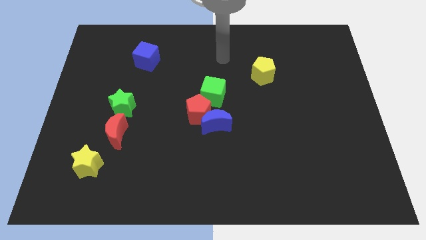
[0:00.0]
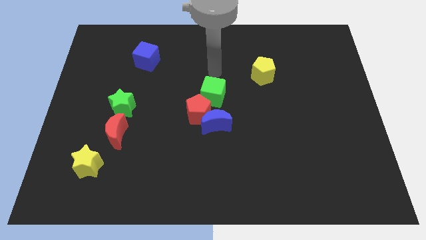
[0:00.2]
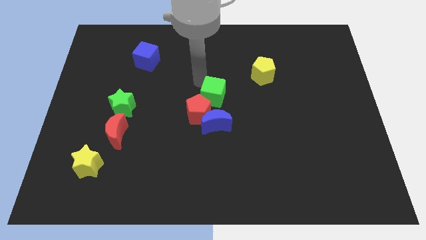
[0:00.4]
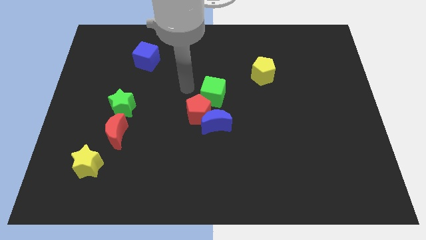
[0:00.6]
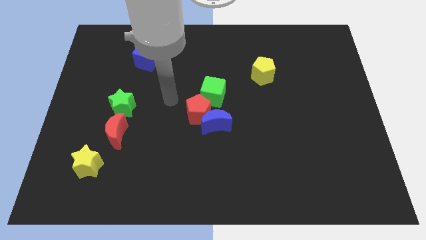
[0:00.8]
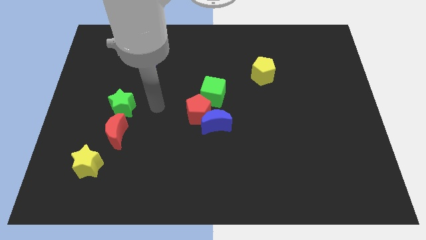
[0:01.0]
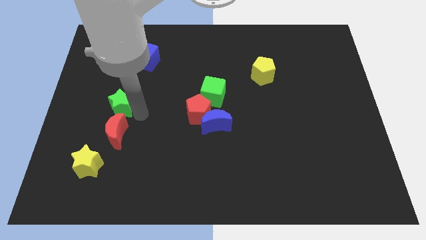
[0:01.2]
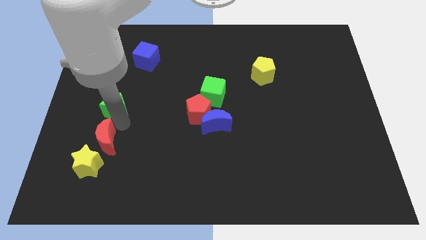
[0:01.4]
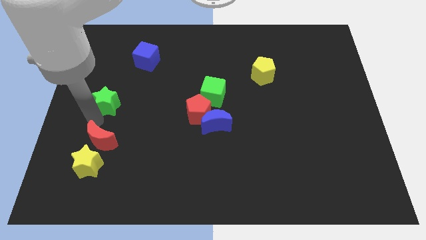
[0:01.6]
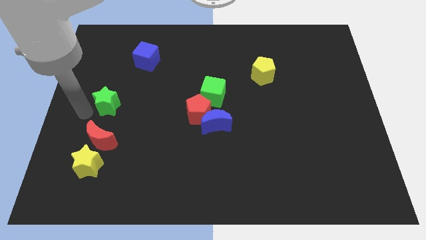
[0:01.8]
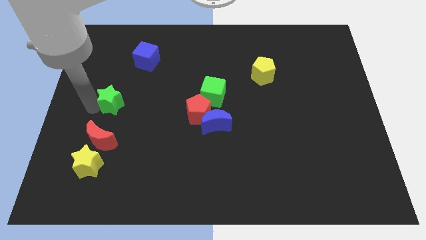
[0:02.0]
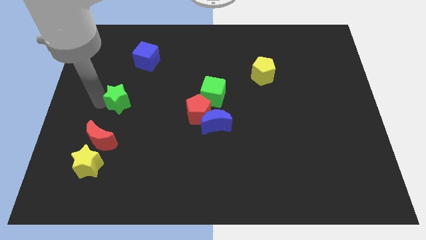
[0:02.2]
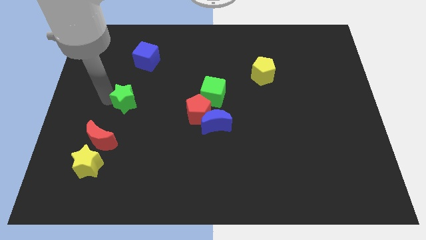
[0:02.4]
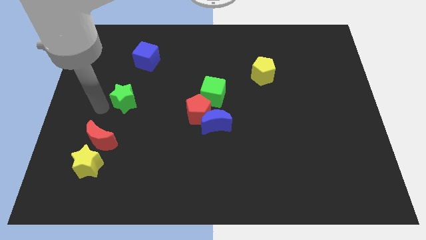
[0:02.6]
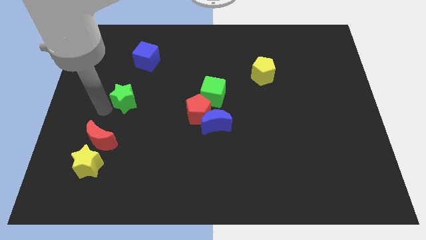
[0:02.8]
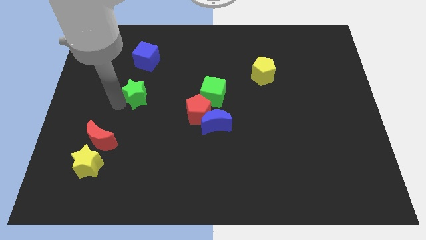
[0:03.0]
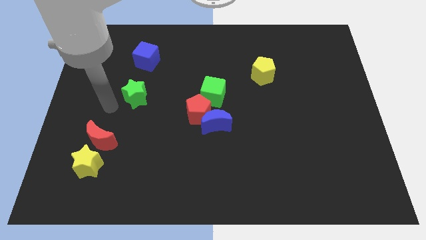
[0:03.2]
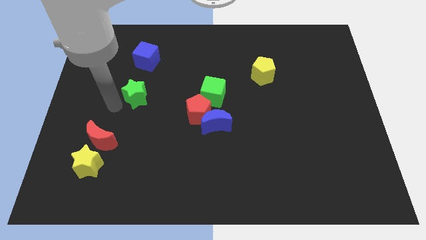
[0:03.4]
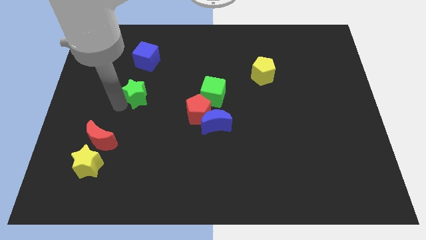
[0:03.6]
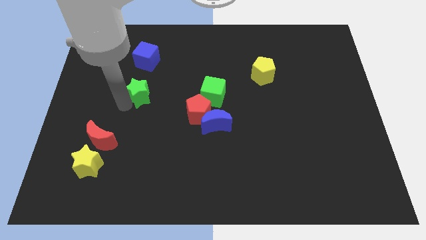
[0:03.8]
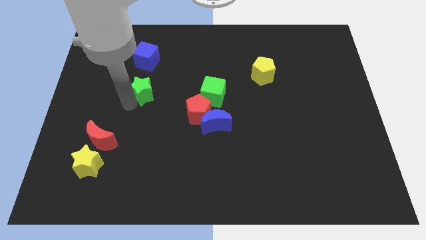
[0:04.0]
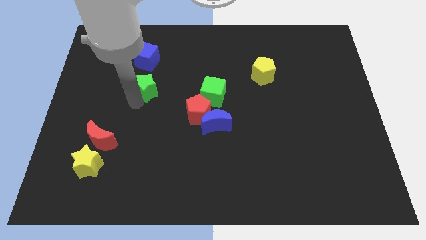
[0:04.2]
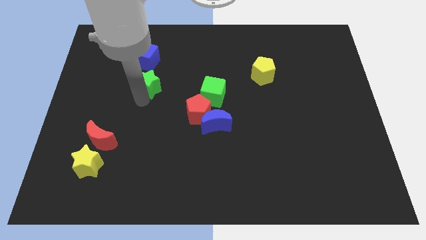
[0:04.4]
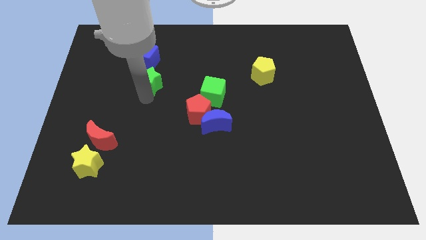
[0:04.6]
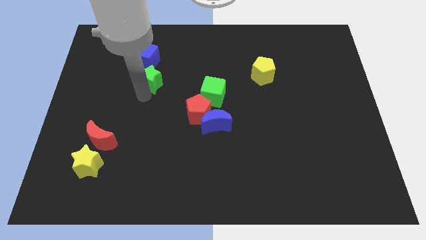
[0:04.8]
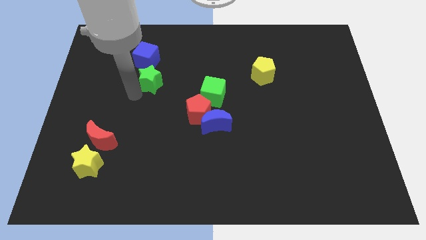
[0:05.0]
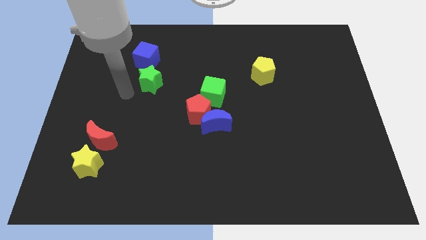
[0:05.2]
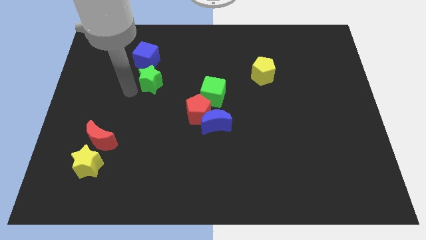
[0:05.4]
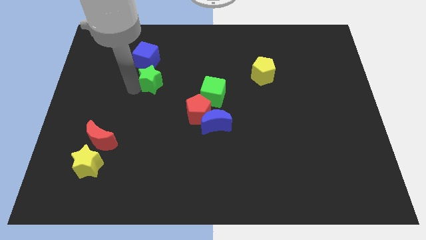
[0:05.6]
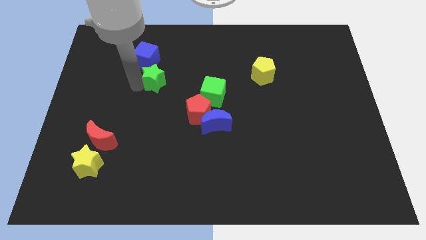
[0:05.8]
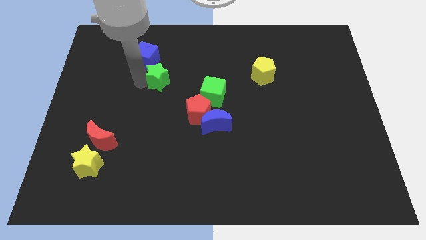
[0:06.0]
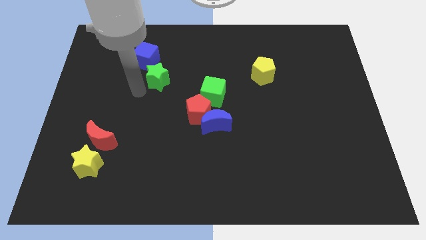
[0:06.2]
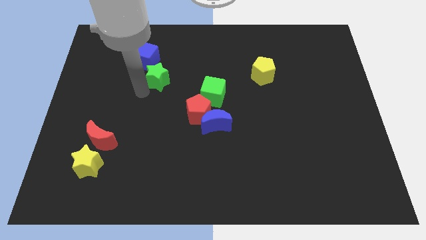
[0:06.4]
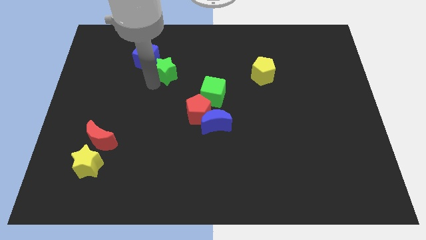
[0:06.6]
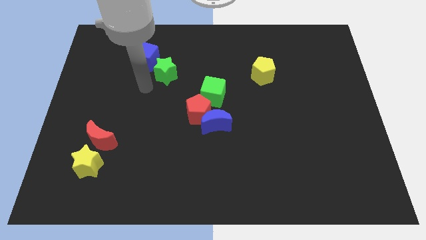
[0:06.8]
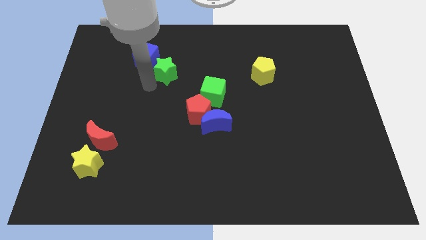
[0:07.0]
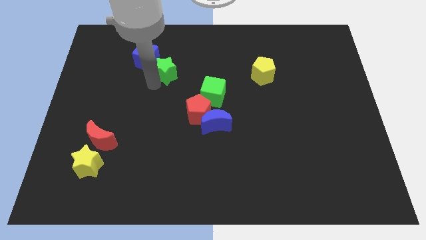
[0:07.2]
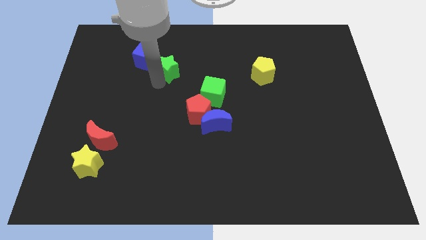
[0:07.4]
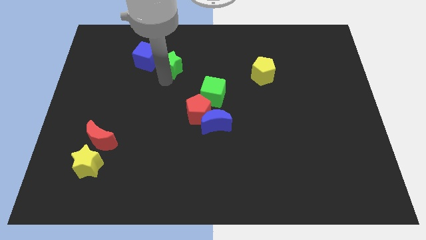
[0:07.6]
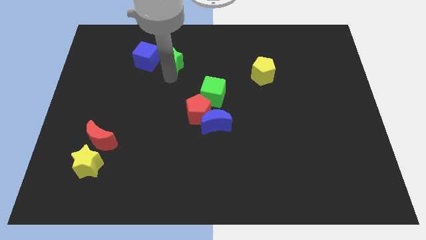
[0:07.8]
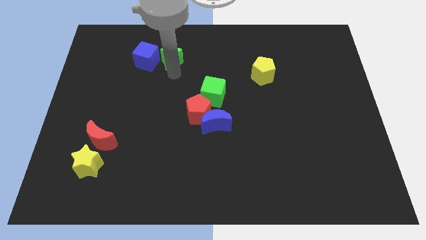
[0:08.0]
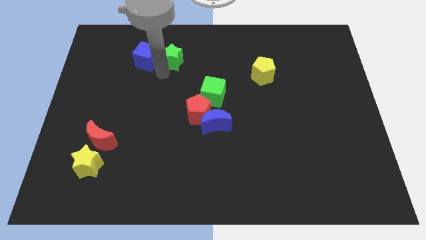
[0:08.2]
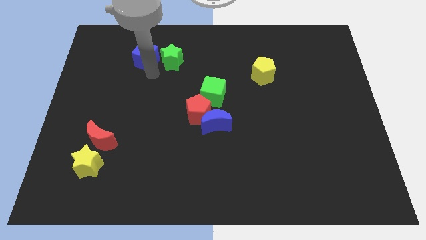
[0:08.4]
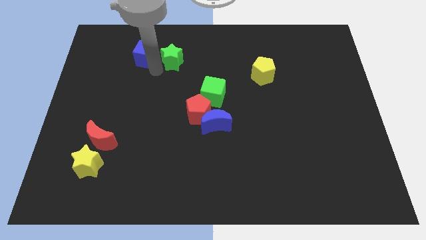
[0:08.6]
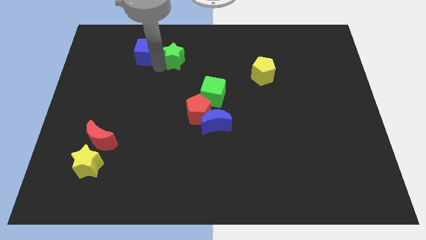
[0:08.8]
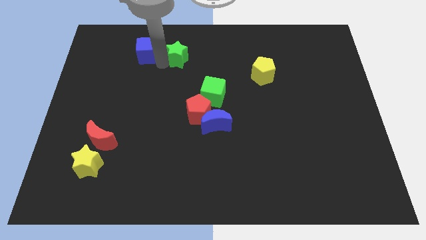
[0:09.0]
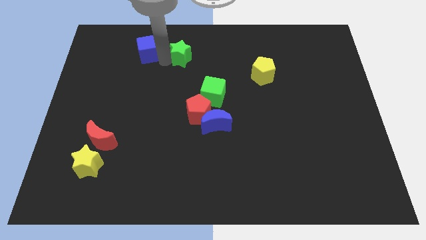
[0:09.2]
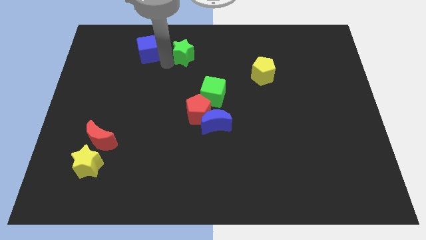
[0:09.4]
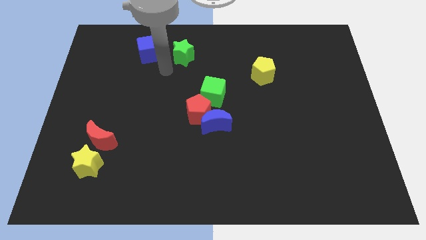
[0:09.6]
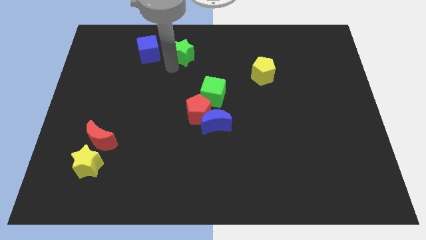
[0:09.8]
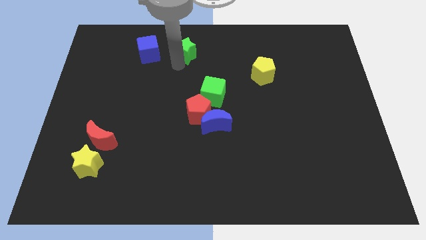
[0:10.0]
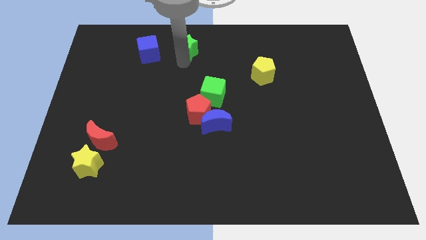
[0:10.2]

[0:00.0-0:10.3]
move the green star to the towards your base

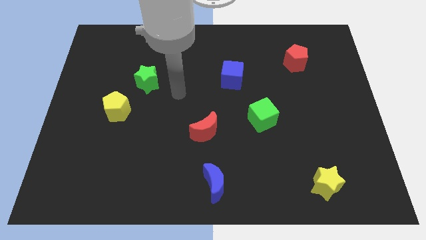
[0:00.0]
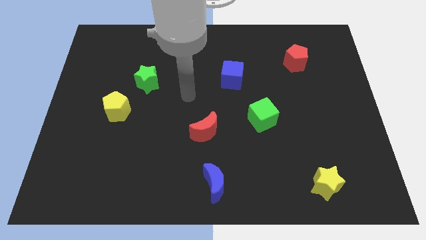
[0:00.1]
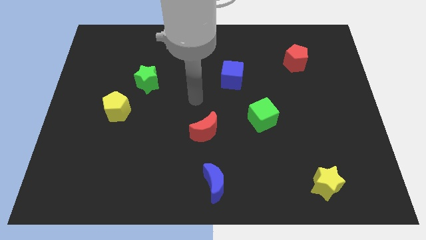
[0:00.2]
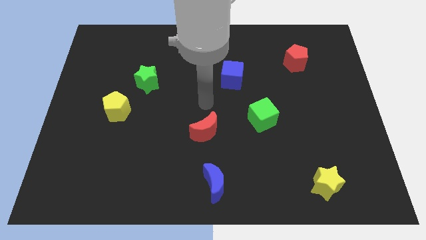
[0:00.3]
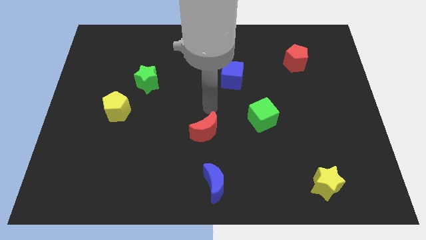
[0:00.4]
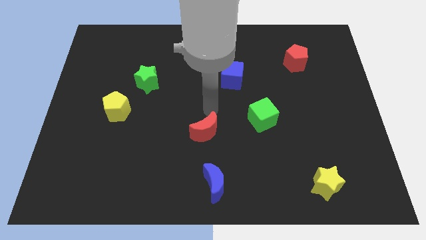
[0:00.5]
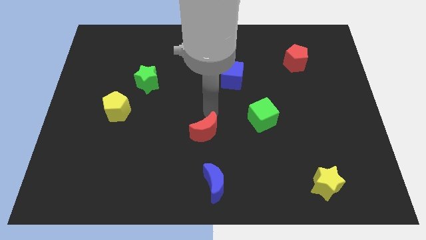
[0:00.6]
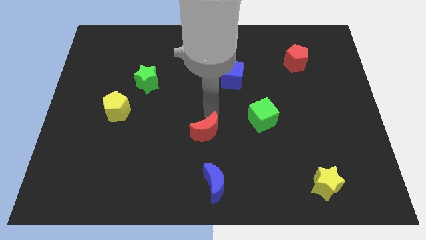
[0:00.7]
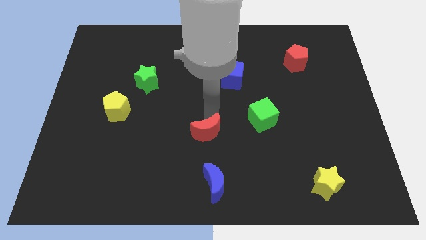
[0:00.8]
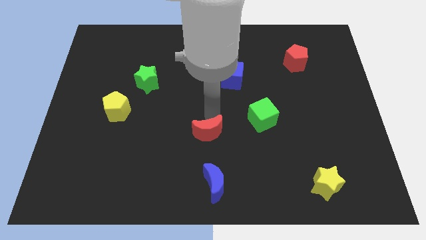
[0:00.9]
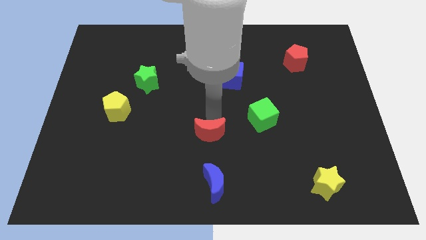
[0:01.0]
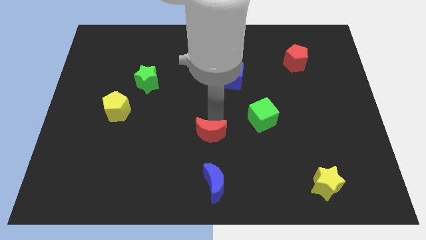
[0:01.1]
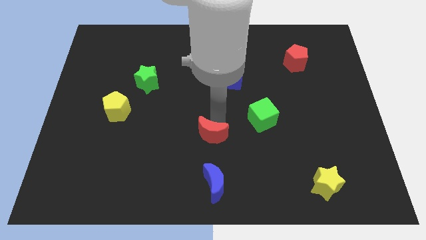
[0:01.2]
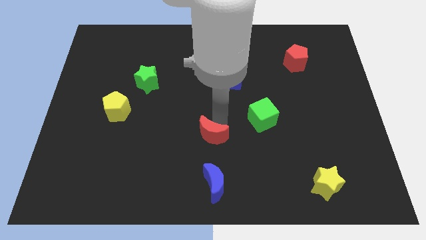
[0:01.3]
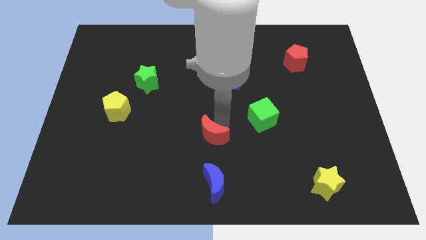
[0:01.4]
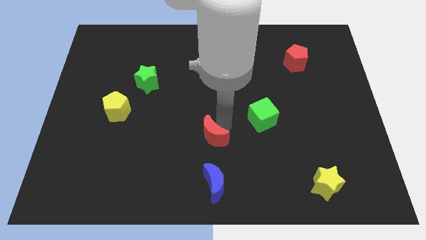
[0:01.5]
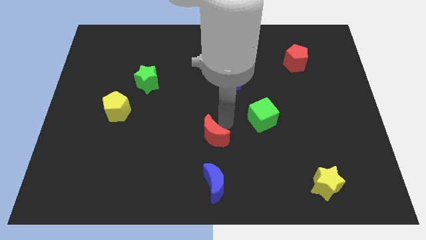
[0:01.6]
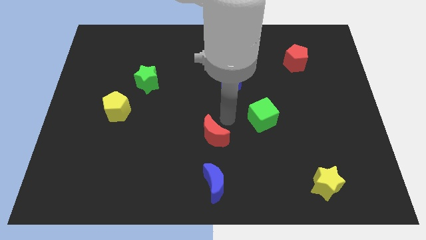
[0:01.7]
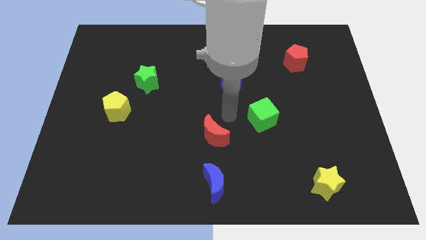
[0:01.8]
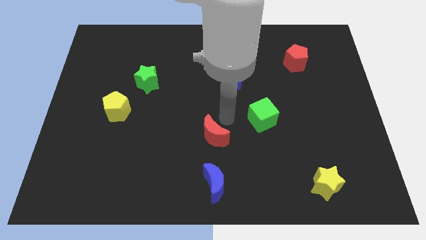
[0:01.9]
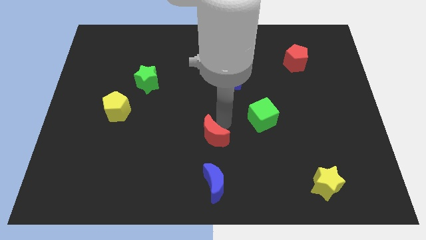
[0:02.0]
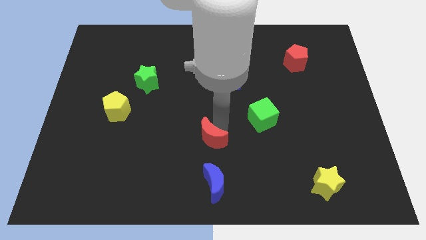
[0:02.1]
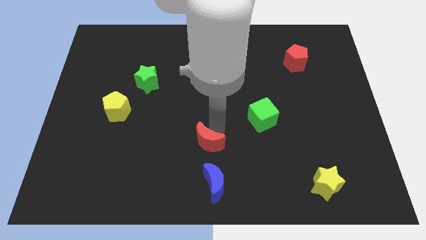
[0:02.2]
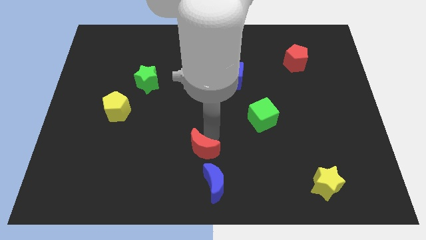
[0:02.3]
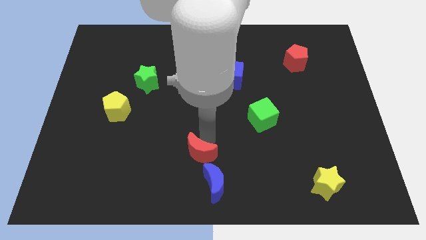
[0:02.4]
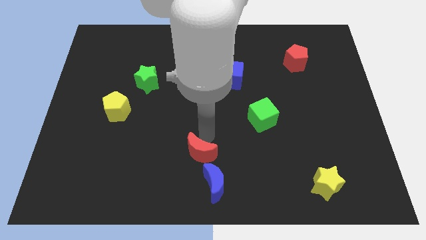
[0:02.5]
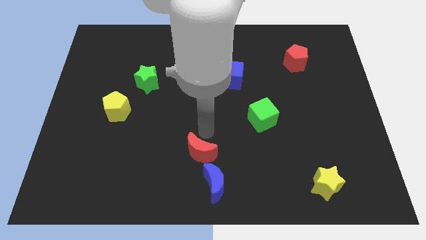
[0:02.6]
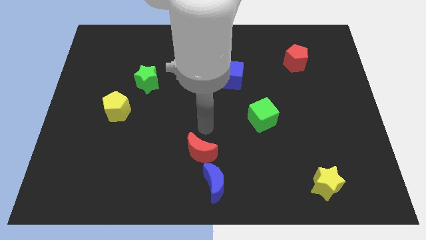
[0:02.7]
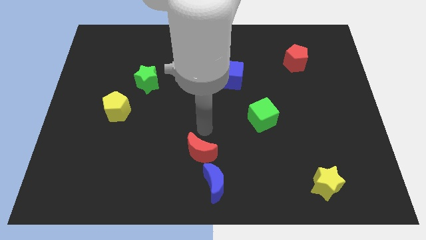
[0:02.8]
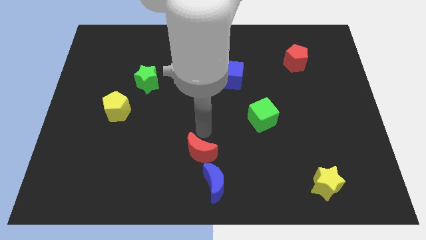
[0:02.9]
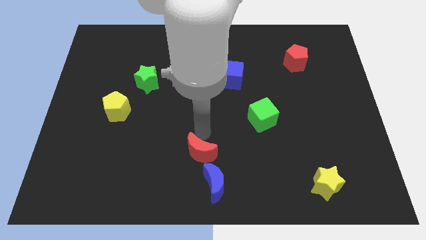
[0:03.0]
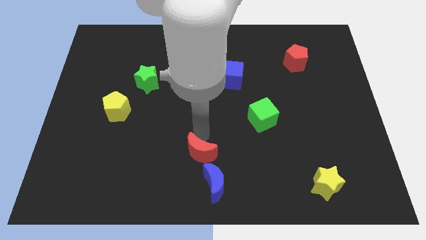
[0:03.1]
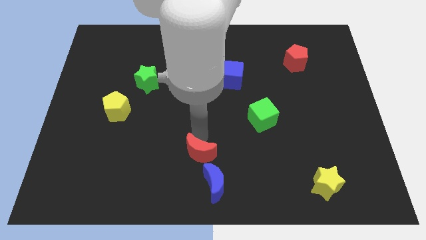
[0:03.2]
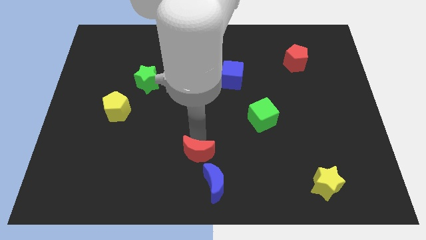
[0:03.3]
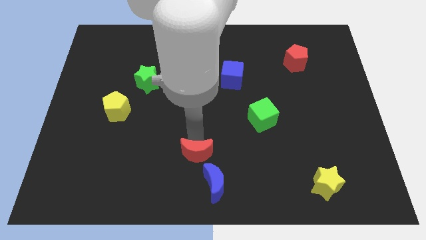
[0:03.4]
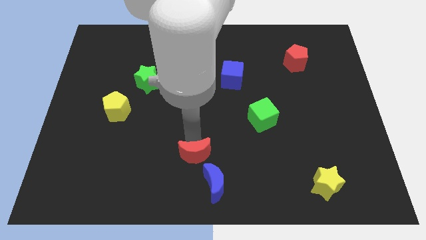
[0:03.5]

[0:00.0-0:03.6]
slide the red moon to the bottom side
